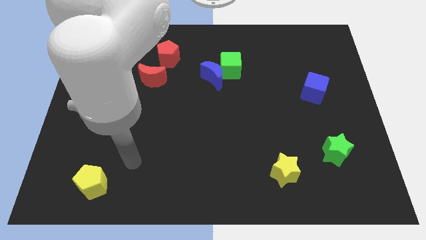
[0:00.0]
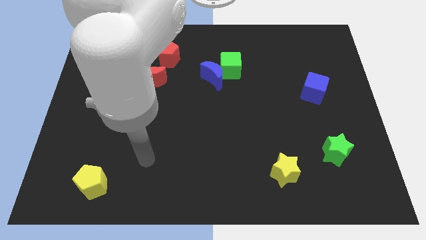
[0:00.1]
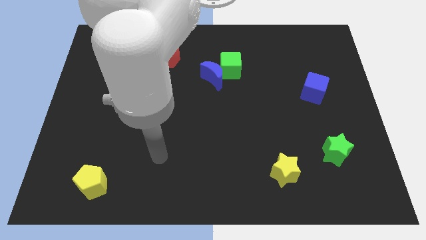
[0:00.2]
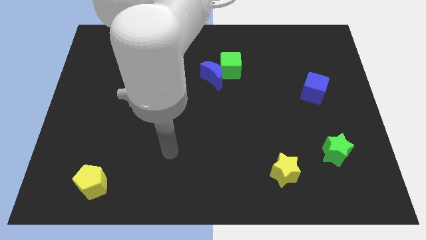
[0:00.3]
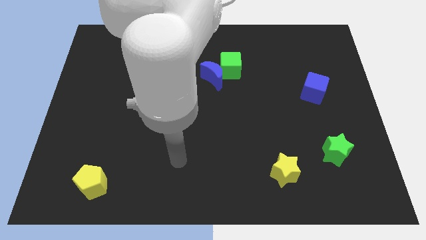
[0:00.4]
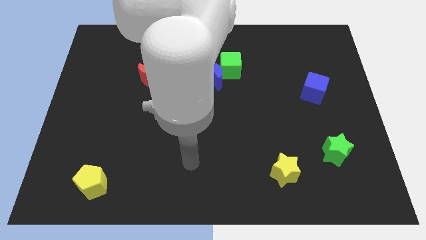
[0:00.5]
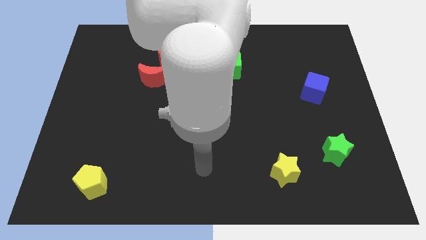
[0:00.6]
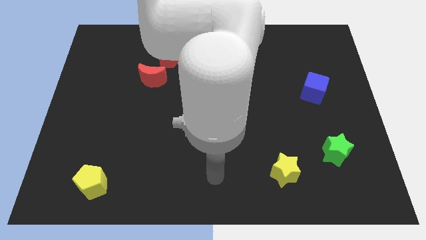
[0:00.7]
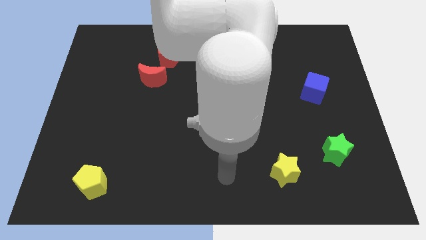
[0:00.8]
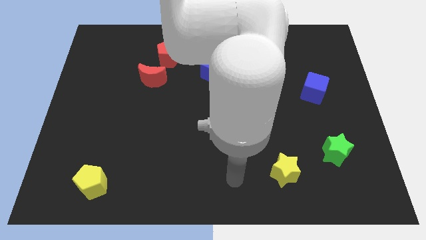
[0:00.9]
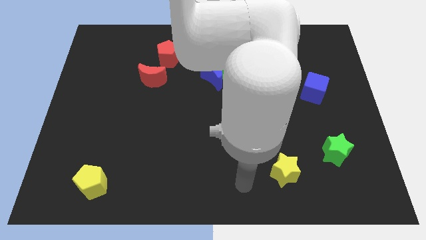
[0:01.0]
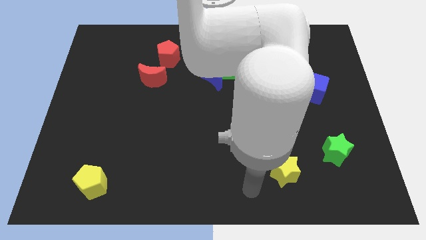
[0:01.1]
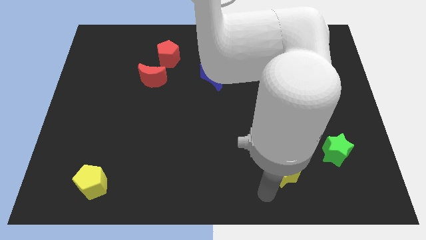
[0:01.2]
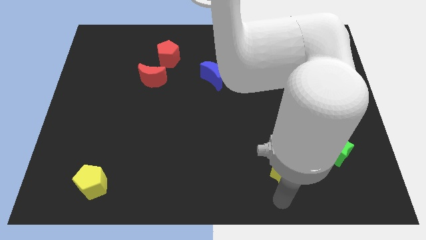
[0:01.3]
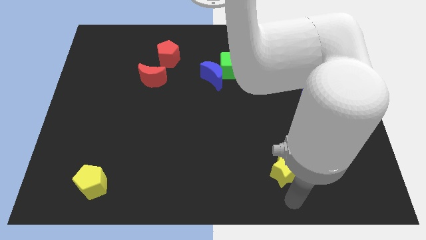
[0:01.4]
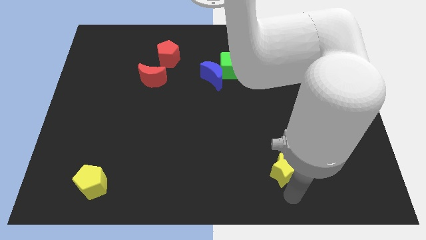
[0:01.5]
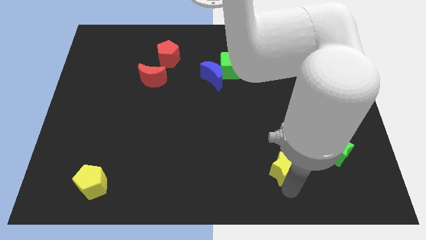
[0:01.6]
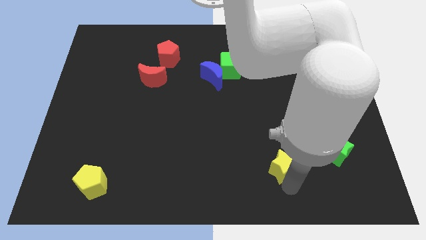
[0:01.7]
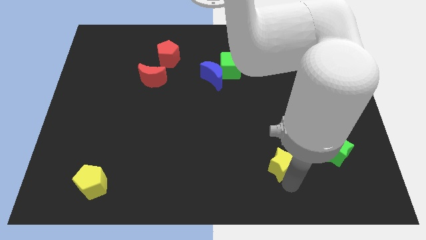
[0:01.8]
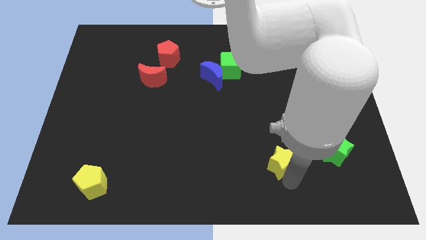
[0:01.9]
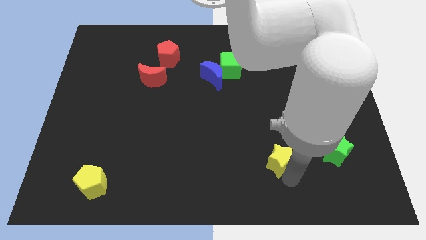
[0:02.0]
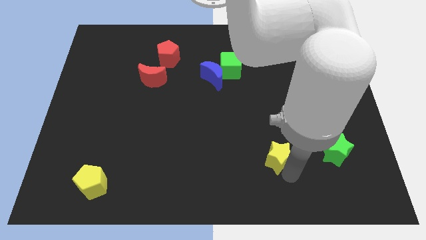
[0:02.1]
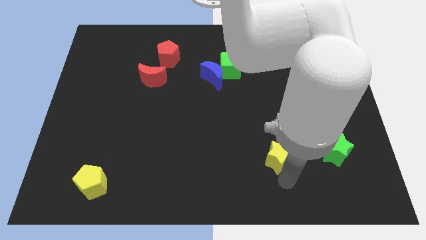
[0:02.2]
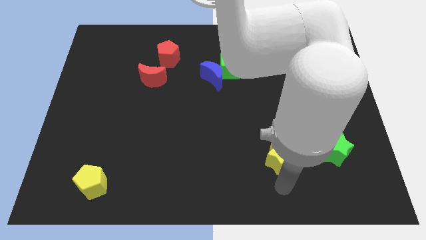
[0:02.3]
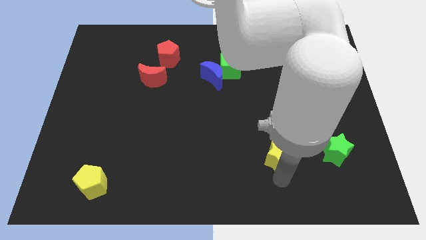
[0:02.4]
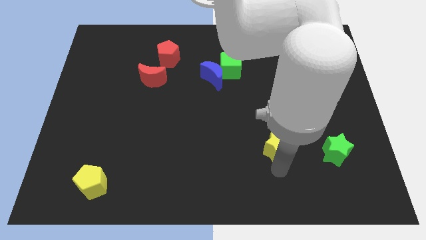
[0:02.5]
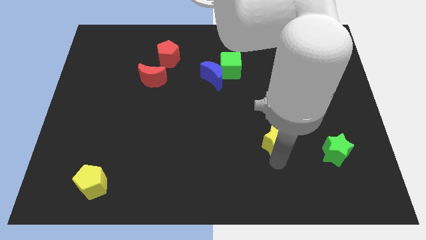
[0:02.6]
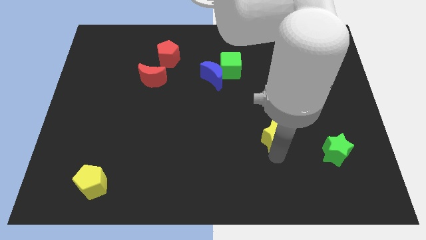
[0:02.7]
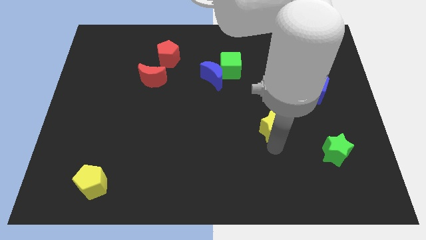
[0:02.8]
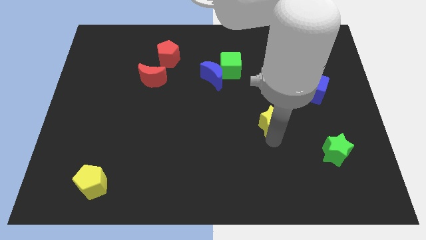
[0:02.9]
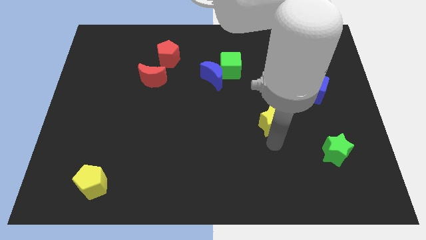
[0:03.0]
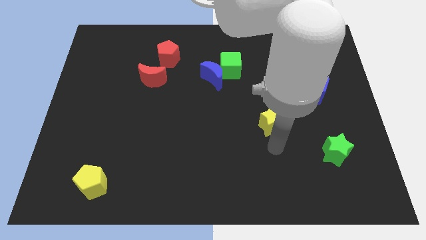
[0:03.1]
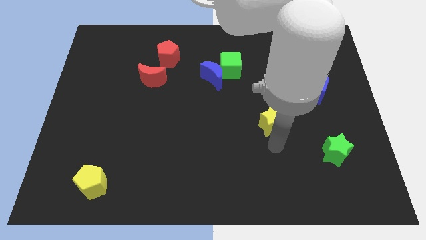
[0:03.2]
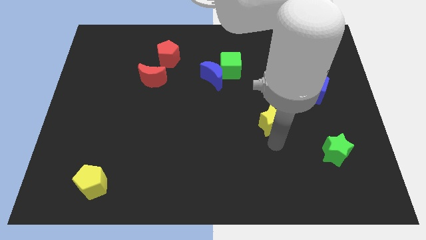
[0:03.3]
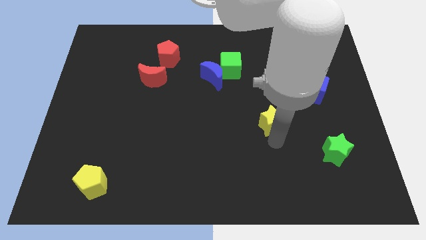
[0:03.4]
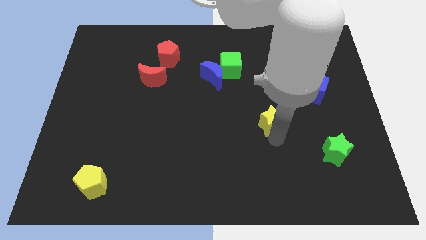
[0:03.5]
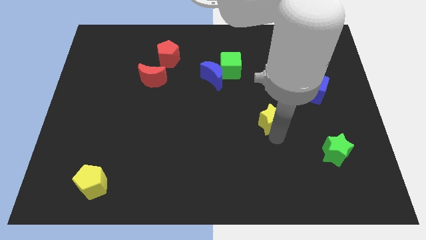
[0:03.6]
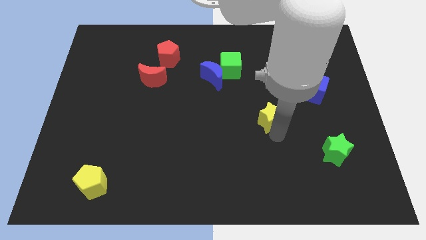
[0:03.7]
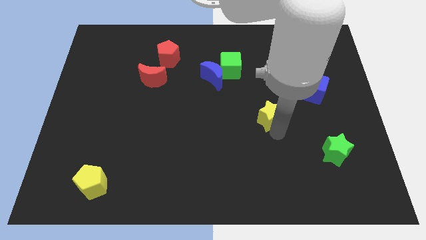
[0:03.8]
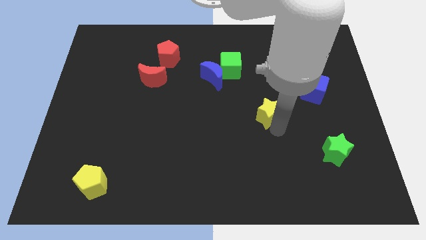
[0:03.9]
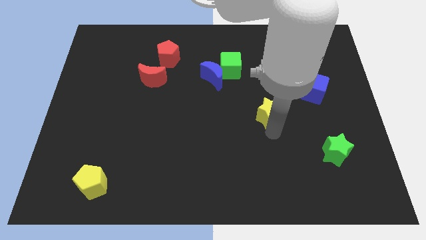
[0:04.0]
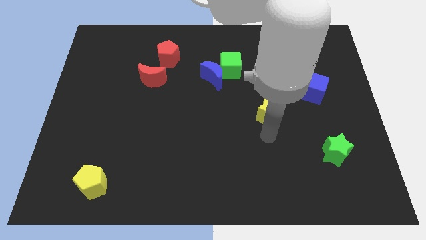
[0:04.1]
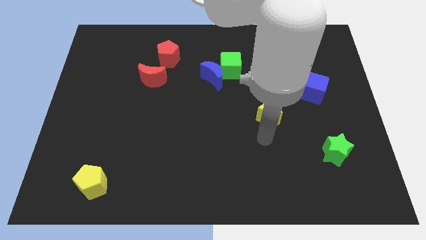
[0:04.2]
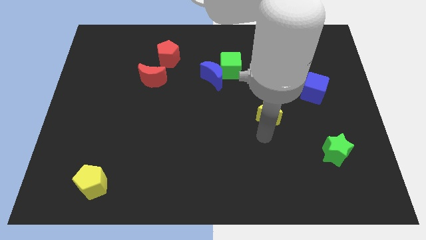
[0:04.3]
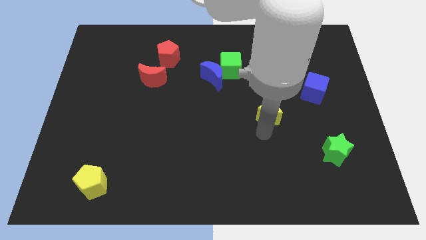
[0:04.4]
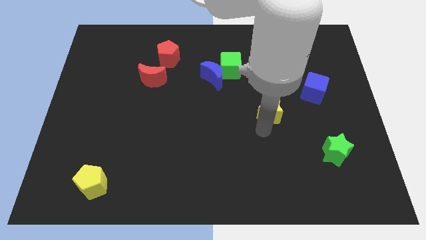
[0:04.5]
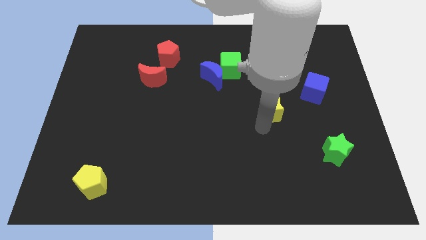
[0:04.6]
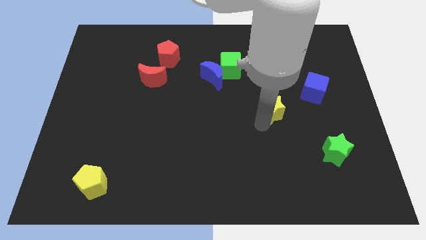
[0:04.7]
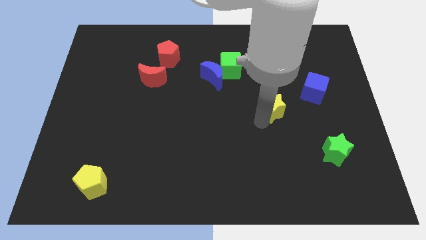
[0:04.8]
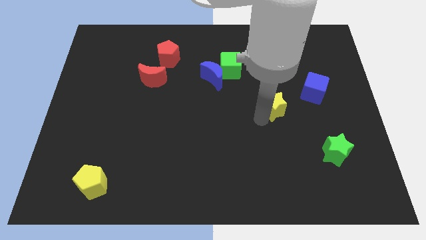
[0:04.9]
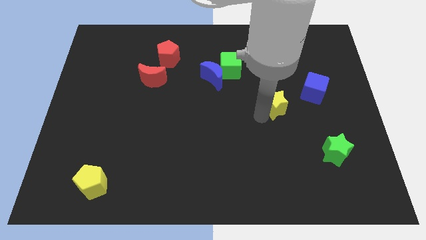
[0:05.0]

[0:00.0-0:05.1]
slide the yellow star to the left of the blue cube

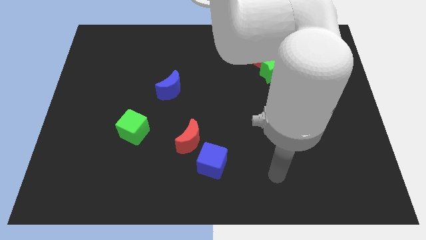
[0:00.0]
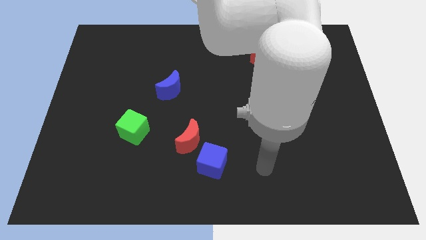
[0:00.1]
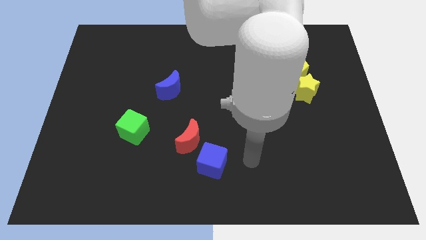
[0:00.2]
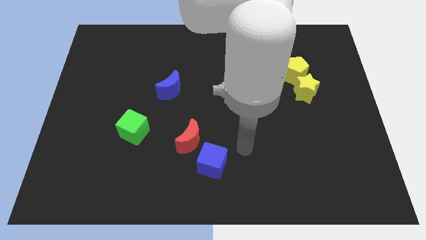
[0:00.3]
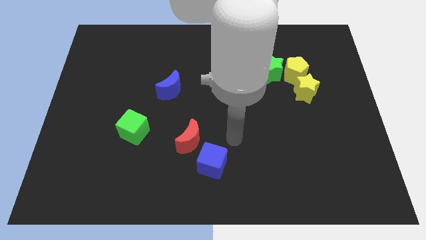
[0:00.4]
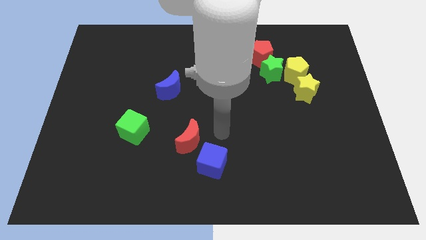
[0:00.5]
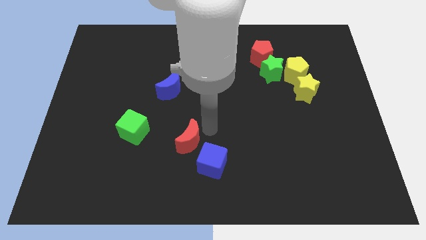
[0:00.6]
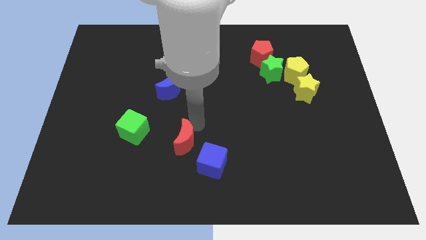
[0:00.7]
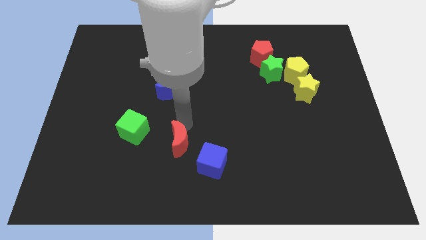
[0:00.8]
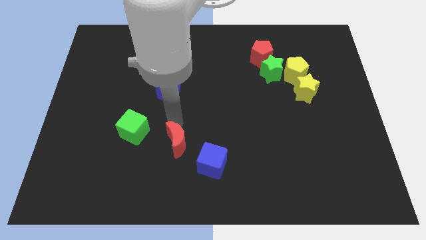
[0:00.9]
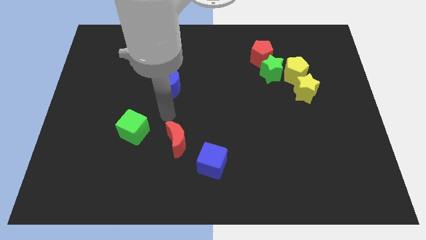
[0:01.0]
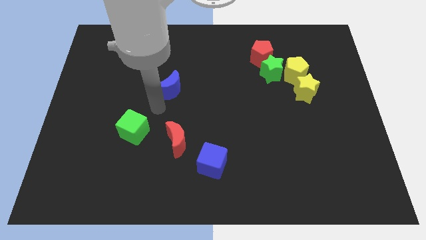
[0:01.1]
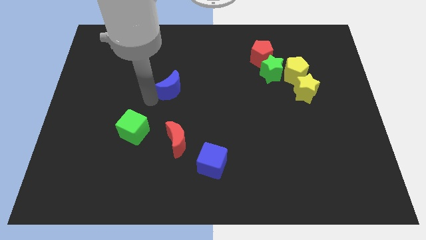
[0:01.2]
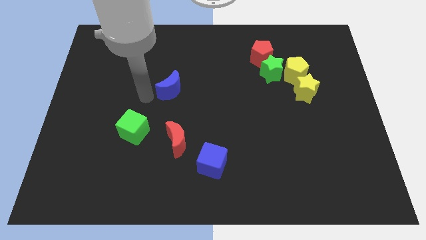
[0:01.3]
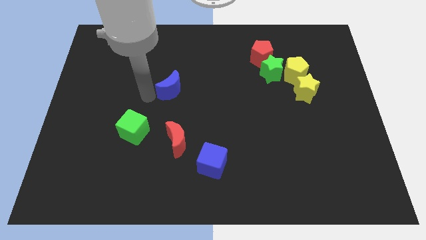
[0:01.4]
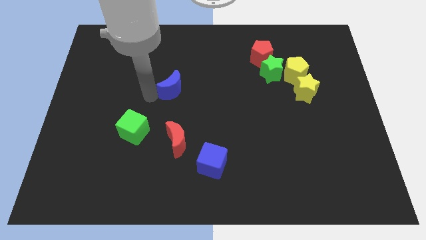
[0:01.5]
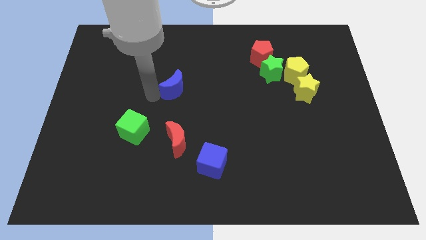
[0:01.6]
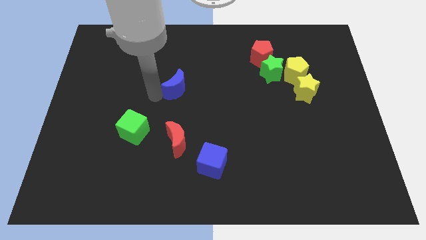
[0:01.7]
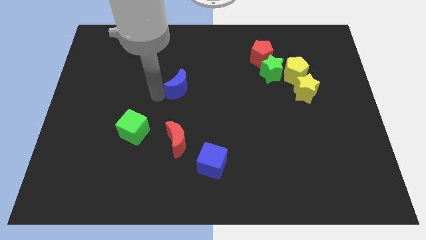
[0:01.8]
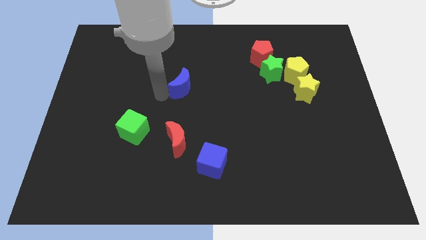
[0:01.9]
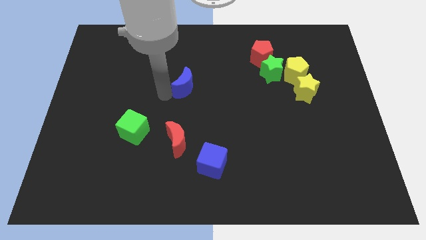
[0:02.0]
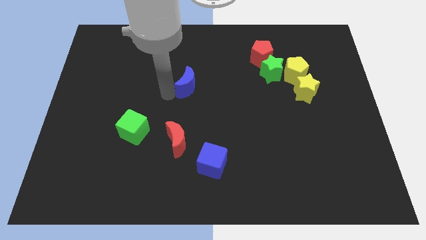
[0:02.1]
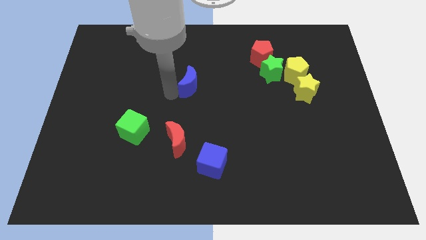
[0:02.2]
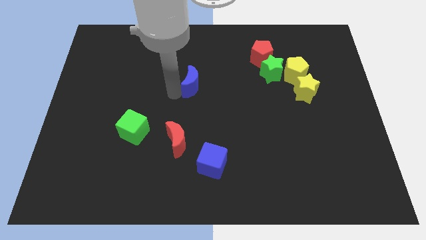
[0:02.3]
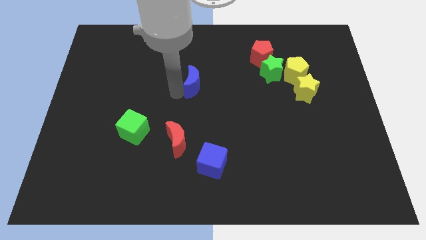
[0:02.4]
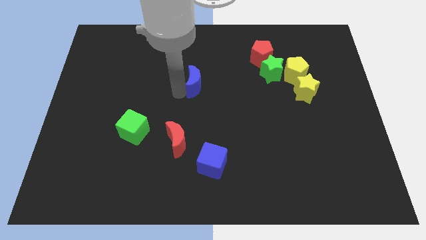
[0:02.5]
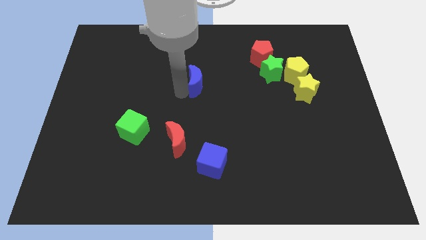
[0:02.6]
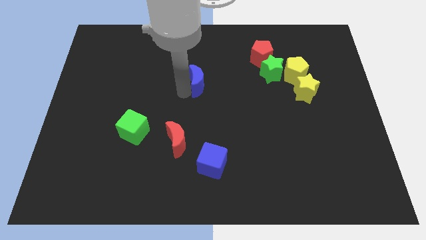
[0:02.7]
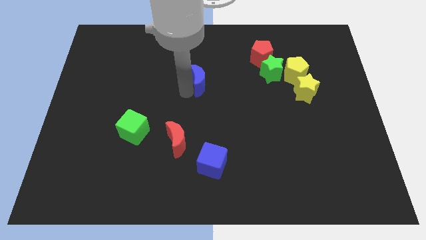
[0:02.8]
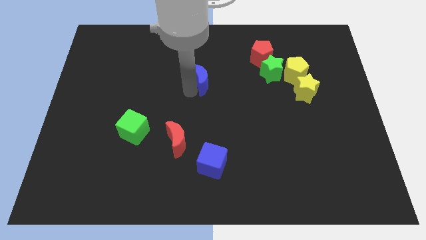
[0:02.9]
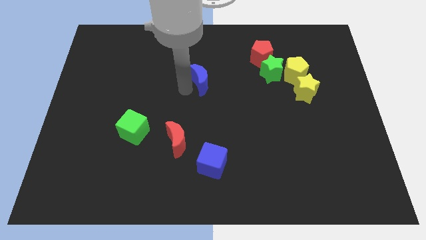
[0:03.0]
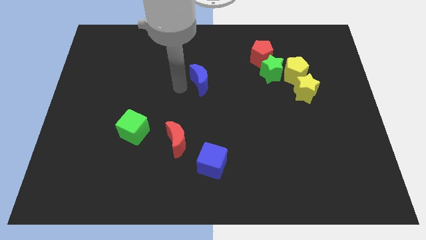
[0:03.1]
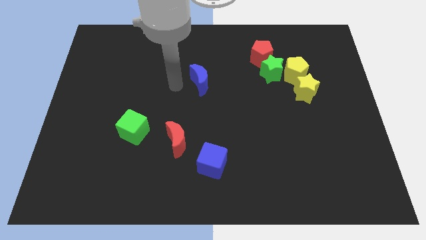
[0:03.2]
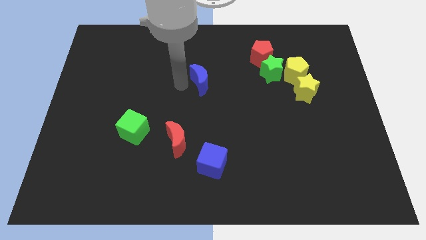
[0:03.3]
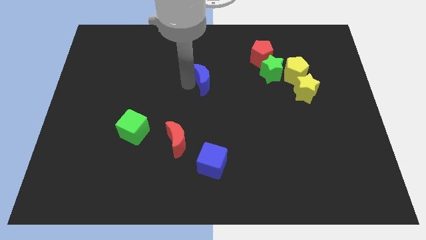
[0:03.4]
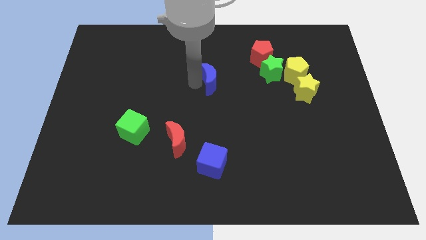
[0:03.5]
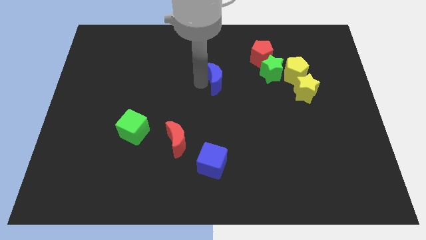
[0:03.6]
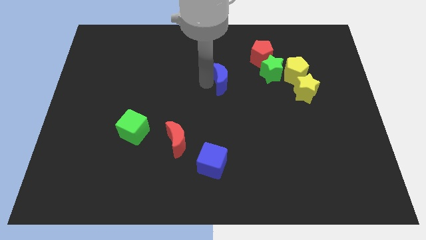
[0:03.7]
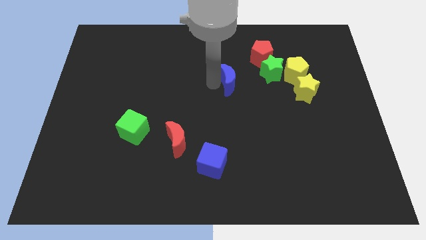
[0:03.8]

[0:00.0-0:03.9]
move the blue moon to the bottom left side of the red pentagon
